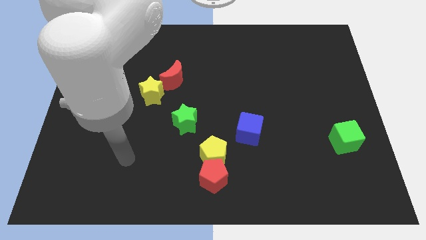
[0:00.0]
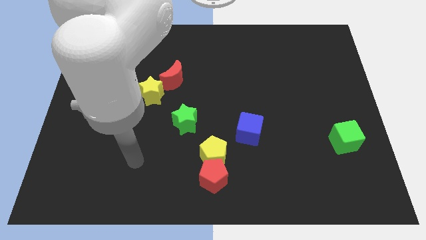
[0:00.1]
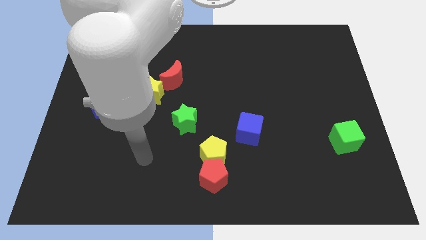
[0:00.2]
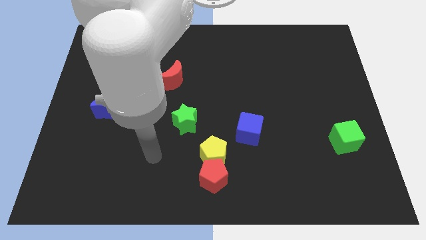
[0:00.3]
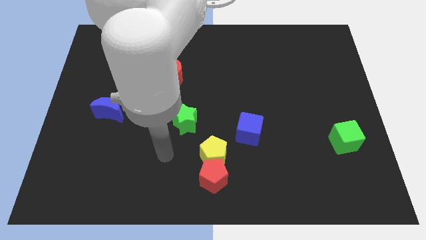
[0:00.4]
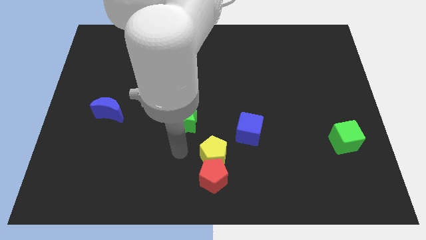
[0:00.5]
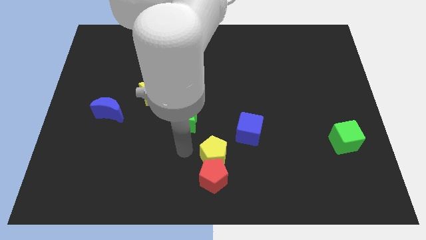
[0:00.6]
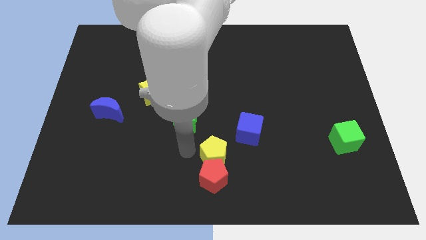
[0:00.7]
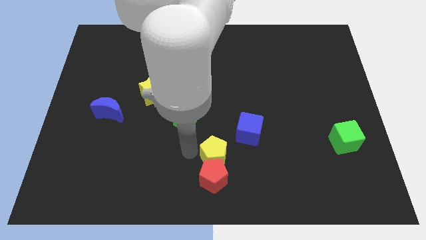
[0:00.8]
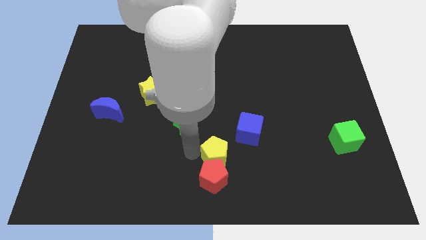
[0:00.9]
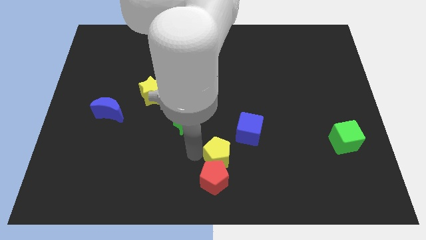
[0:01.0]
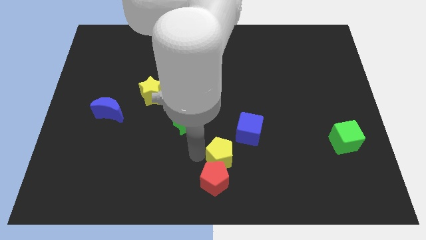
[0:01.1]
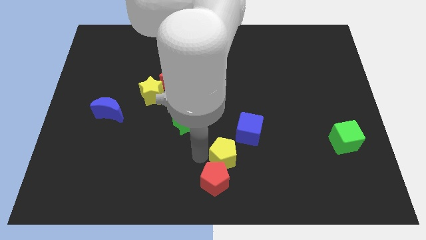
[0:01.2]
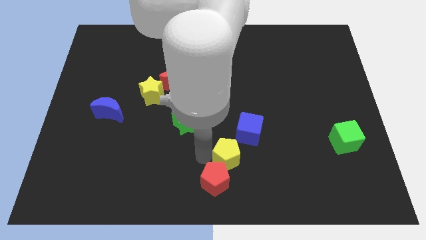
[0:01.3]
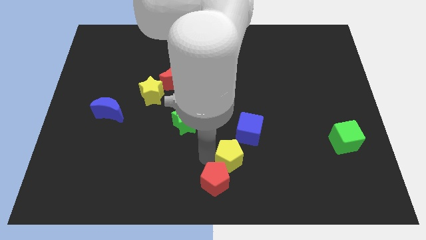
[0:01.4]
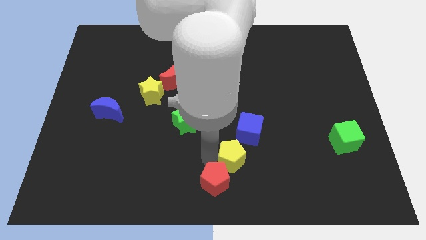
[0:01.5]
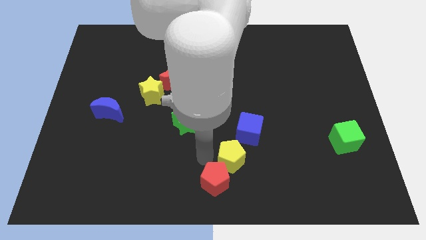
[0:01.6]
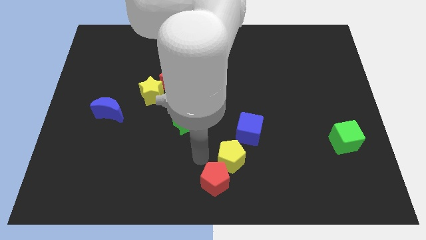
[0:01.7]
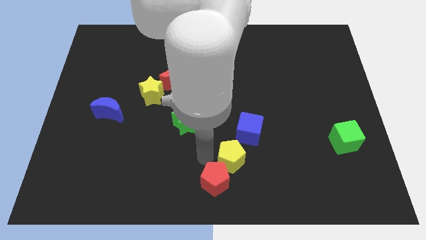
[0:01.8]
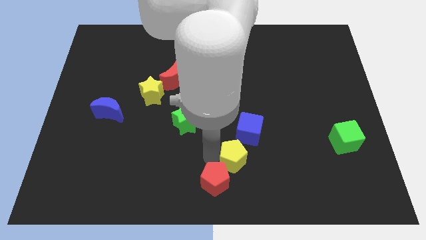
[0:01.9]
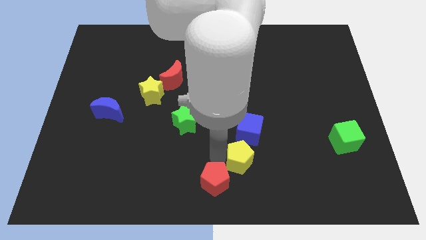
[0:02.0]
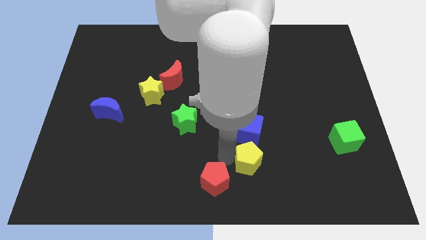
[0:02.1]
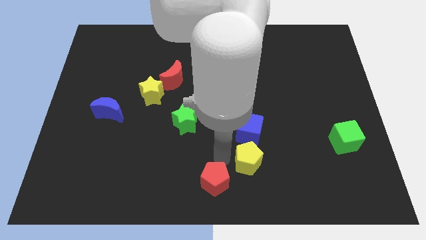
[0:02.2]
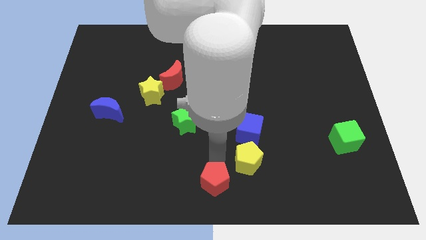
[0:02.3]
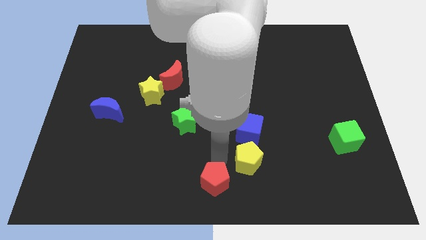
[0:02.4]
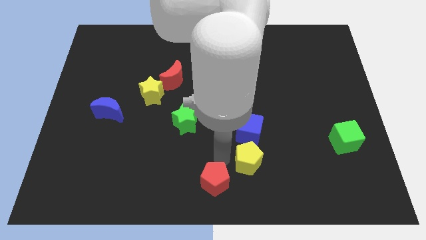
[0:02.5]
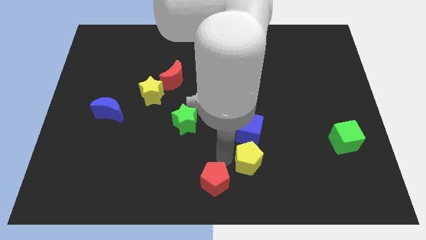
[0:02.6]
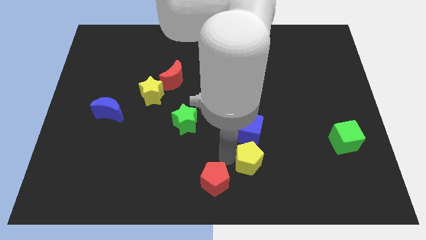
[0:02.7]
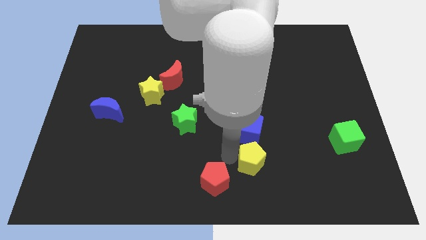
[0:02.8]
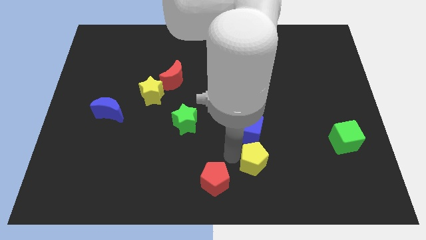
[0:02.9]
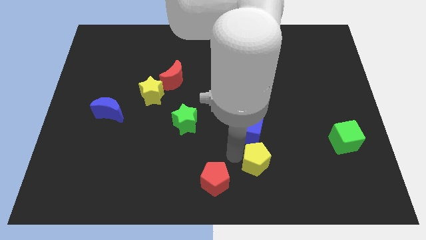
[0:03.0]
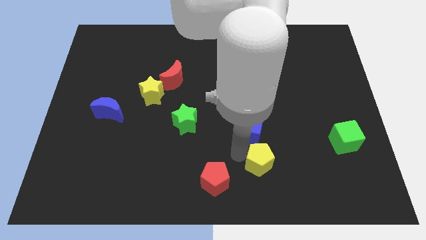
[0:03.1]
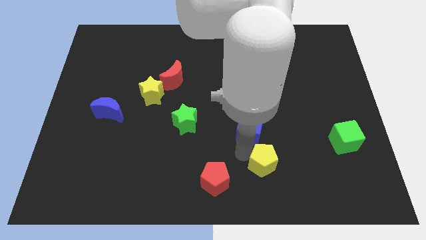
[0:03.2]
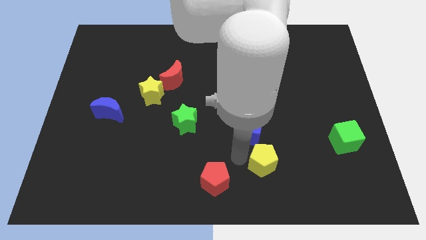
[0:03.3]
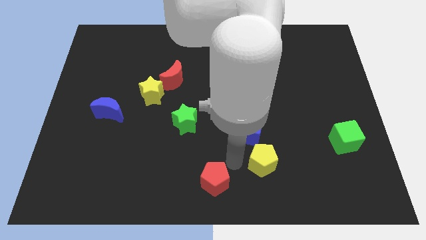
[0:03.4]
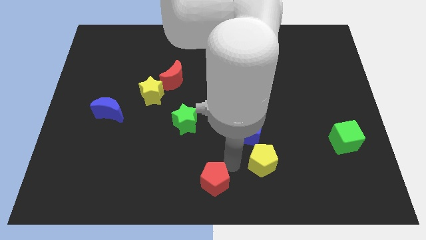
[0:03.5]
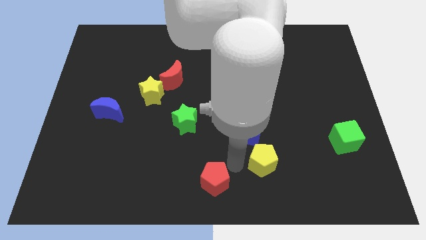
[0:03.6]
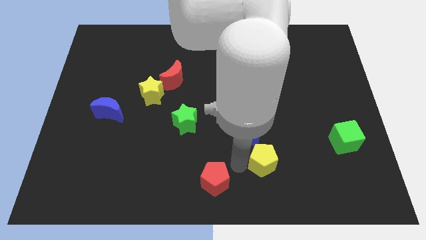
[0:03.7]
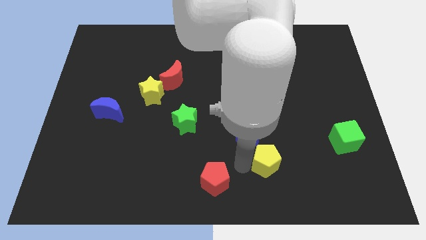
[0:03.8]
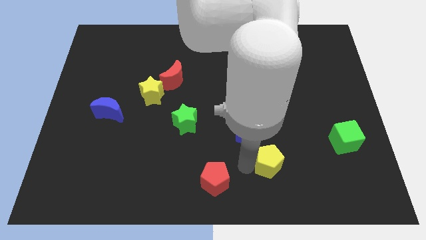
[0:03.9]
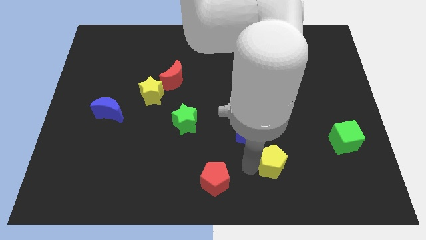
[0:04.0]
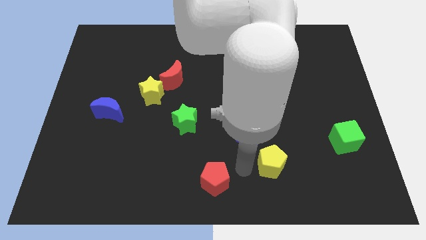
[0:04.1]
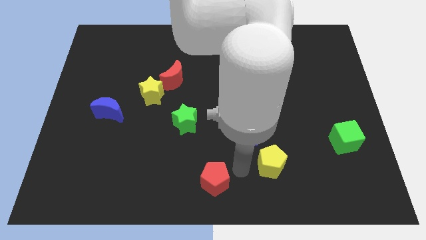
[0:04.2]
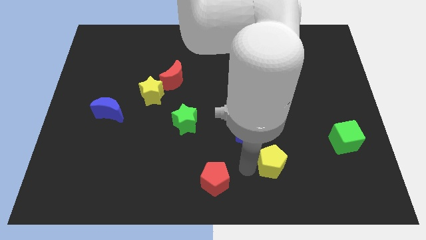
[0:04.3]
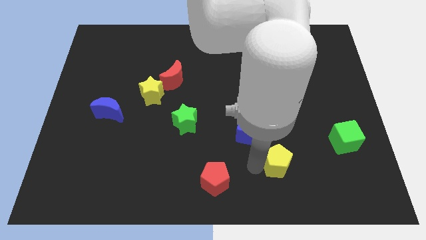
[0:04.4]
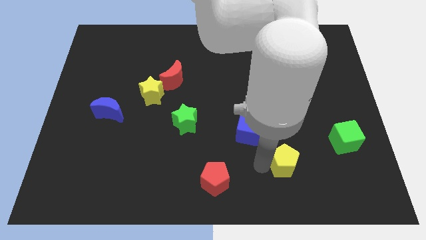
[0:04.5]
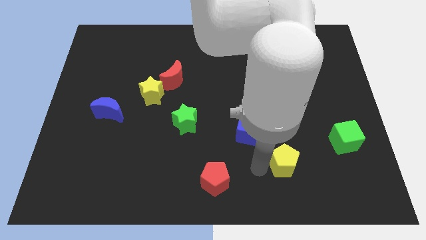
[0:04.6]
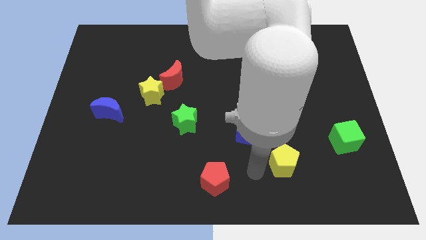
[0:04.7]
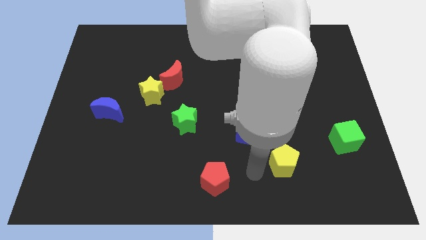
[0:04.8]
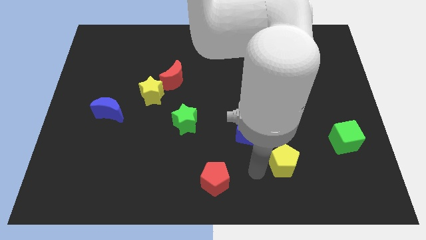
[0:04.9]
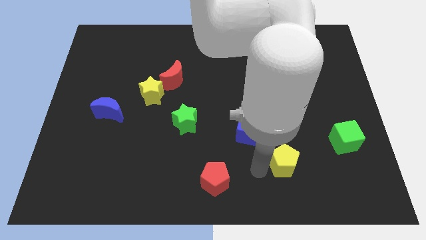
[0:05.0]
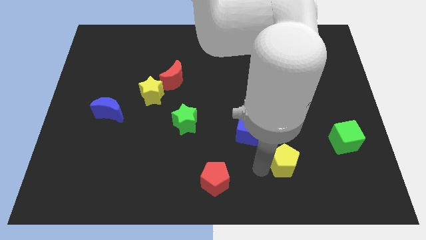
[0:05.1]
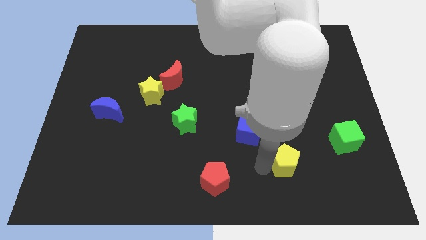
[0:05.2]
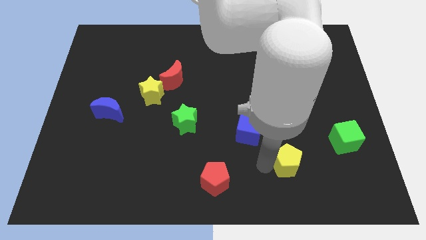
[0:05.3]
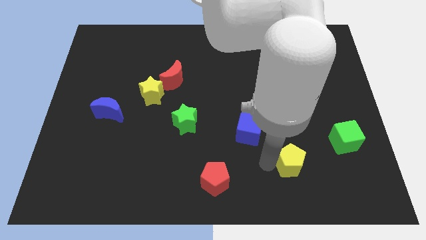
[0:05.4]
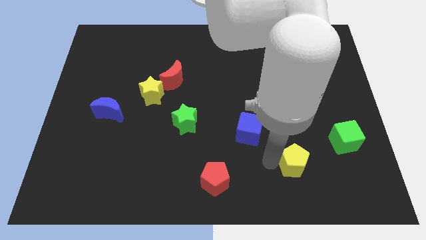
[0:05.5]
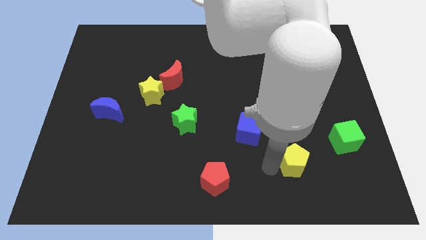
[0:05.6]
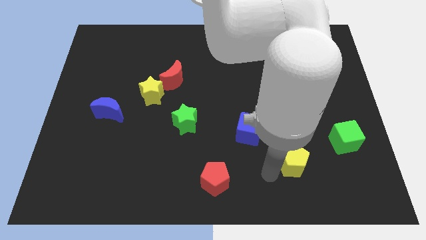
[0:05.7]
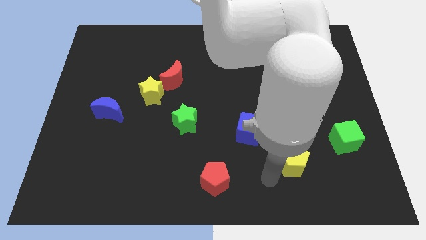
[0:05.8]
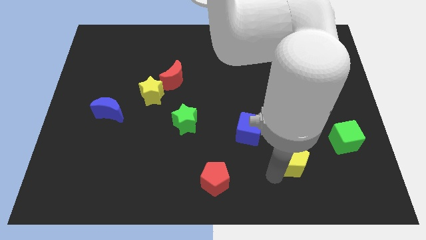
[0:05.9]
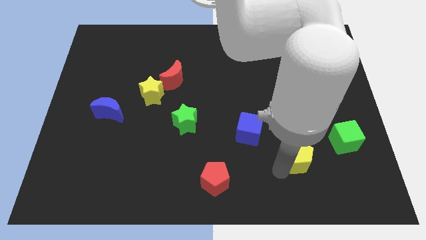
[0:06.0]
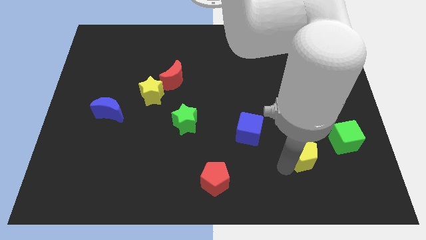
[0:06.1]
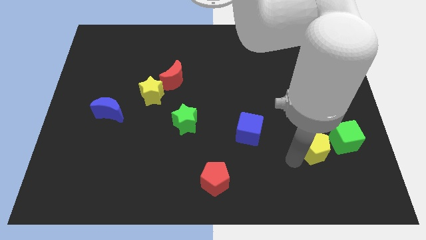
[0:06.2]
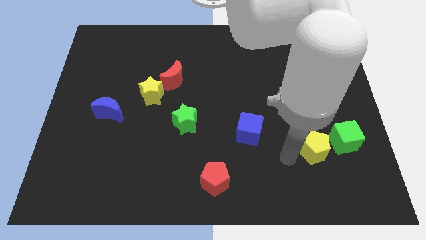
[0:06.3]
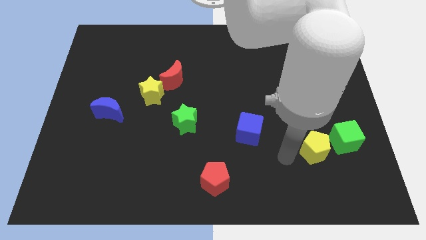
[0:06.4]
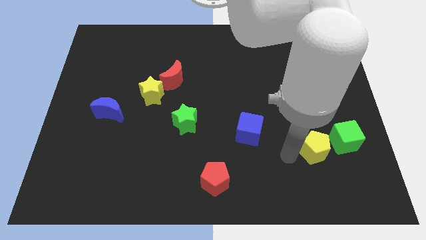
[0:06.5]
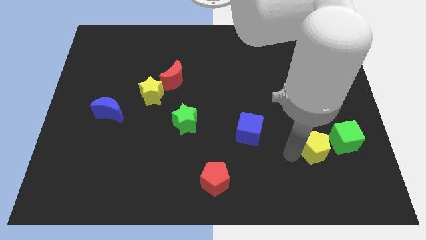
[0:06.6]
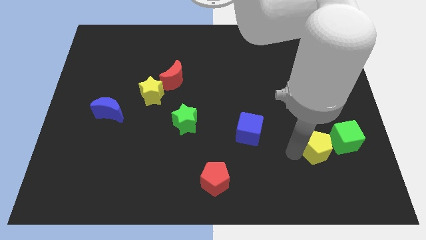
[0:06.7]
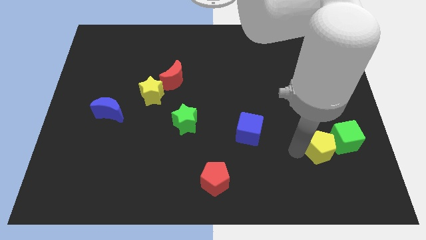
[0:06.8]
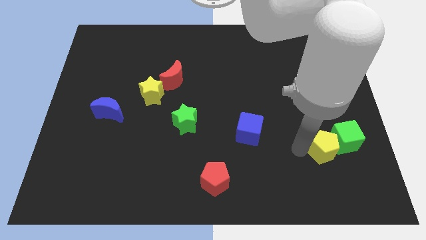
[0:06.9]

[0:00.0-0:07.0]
move the yellow pentagon to the green cube
